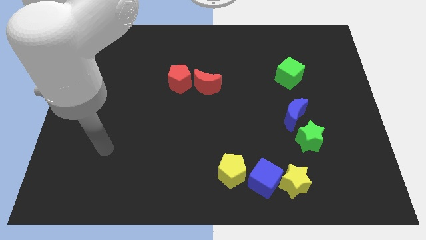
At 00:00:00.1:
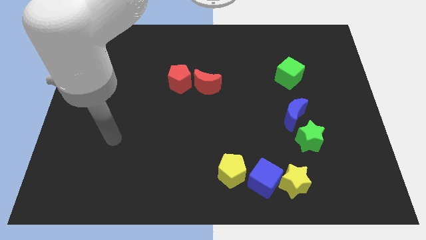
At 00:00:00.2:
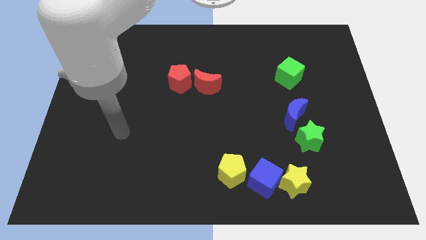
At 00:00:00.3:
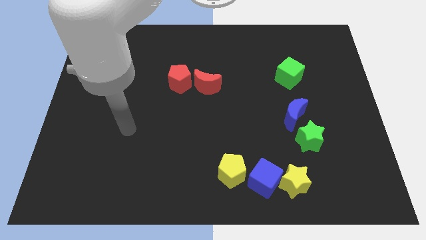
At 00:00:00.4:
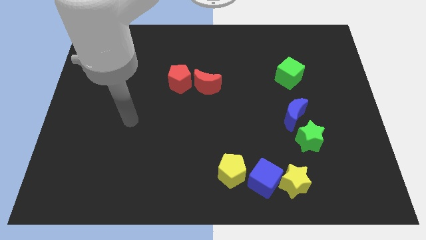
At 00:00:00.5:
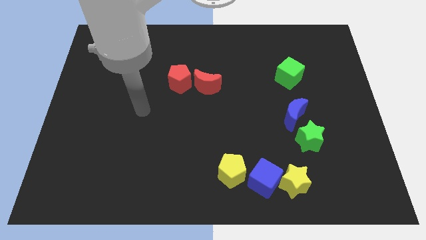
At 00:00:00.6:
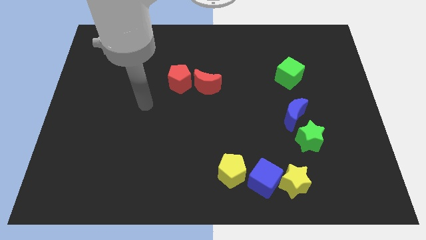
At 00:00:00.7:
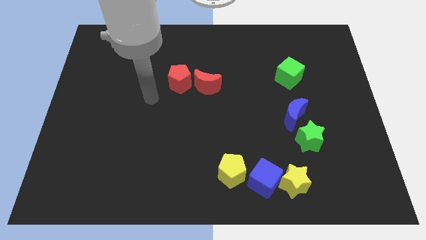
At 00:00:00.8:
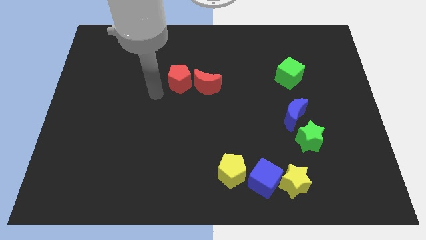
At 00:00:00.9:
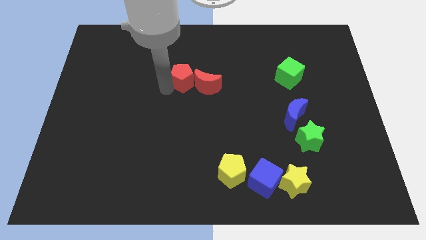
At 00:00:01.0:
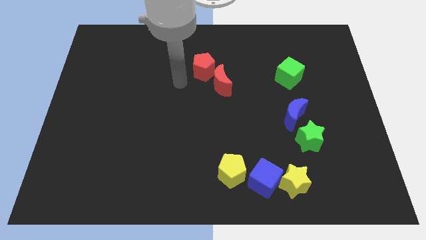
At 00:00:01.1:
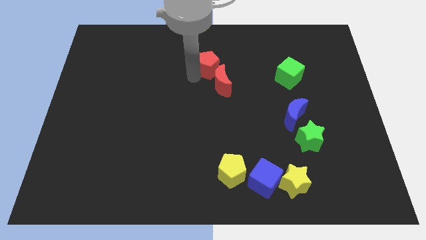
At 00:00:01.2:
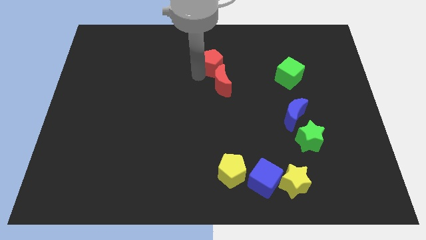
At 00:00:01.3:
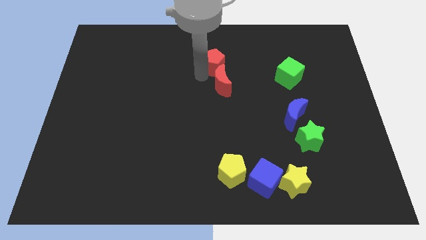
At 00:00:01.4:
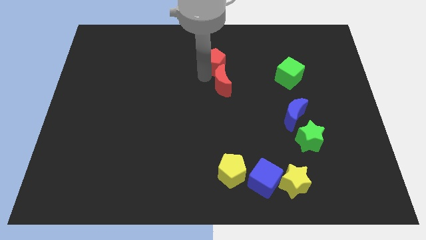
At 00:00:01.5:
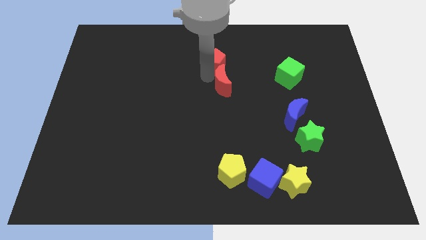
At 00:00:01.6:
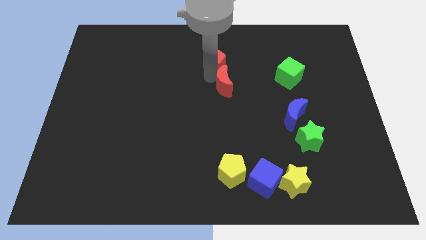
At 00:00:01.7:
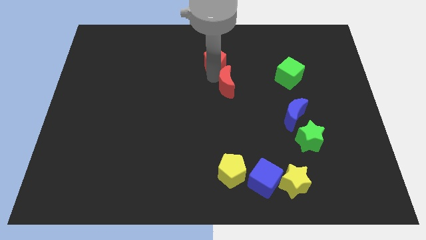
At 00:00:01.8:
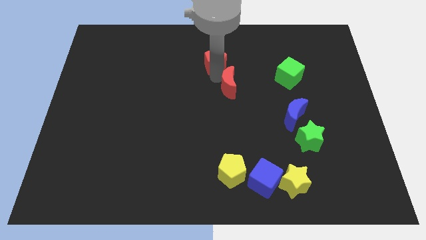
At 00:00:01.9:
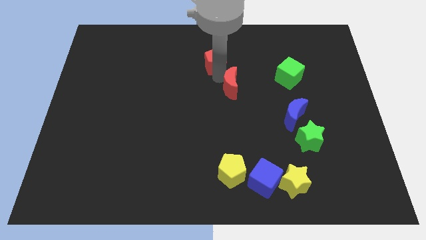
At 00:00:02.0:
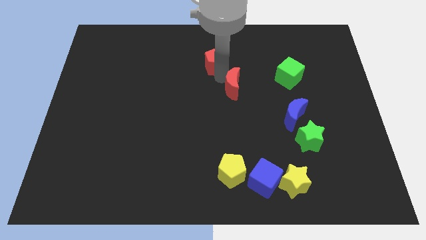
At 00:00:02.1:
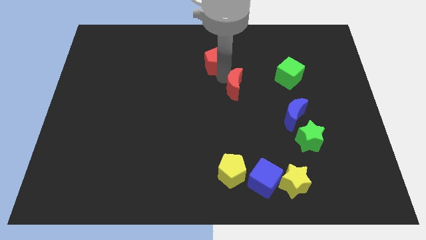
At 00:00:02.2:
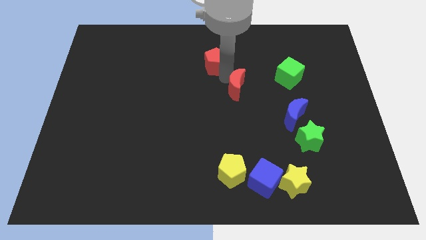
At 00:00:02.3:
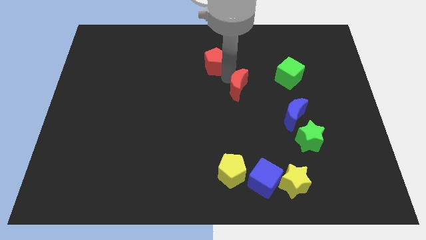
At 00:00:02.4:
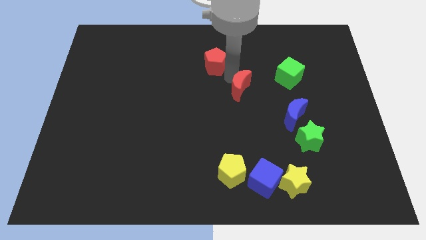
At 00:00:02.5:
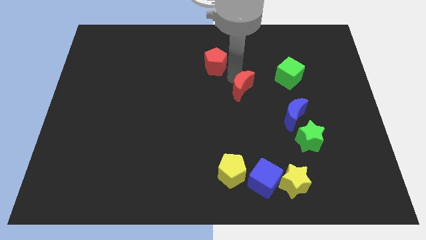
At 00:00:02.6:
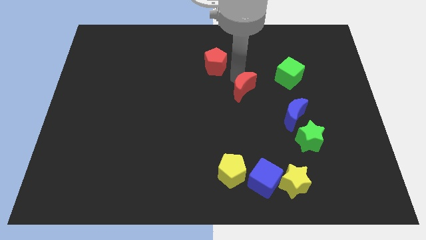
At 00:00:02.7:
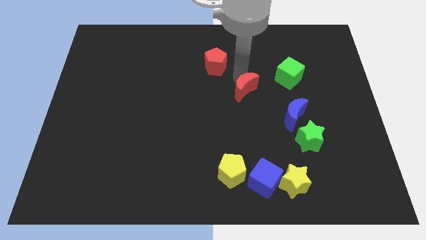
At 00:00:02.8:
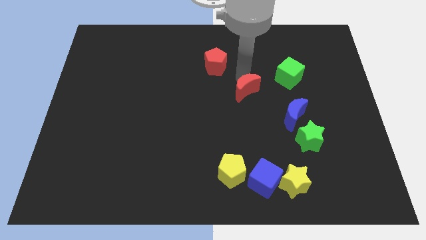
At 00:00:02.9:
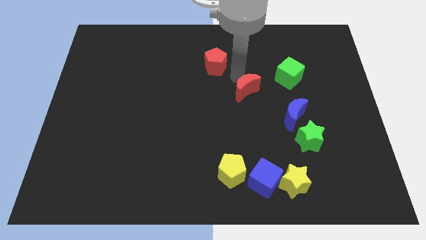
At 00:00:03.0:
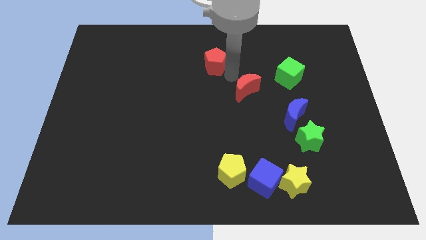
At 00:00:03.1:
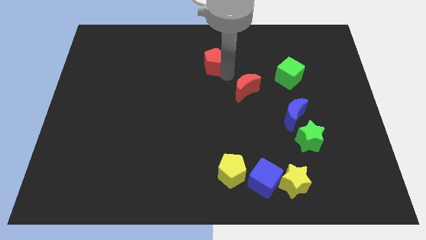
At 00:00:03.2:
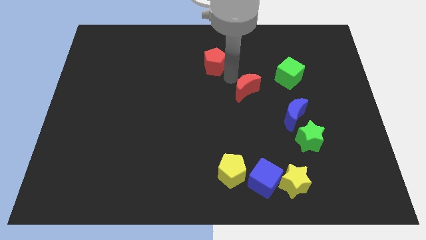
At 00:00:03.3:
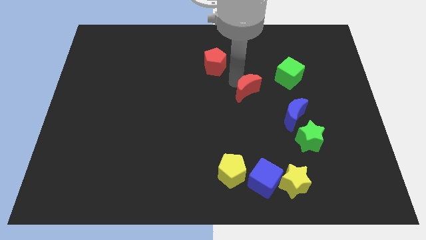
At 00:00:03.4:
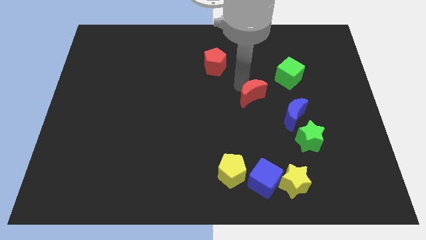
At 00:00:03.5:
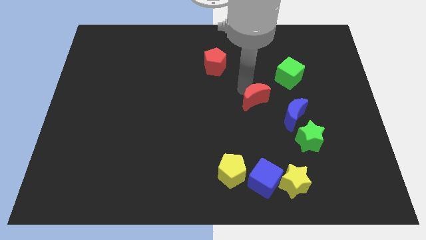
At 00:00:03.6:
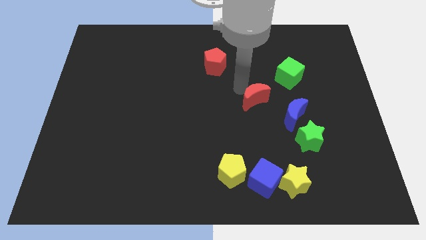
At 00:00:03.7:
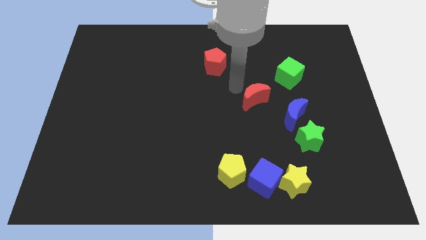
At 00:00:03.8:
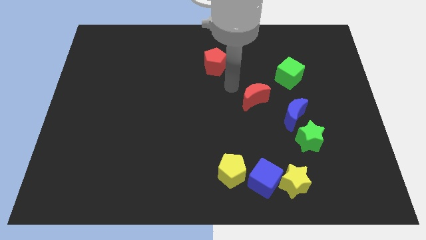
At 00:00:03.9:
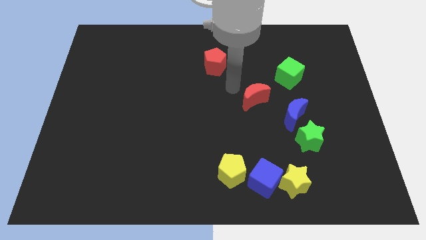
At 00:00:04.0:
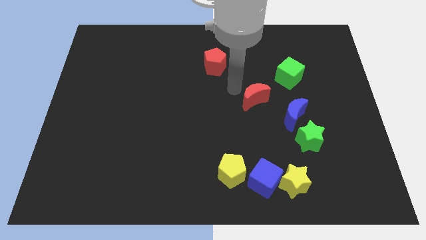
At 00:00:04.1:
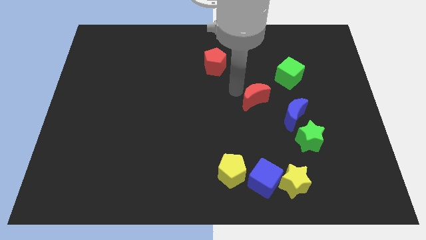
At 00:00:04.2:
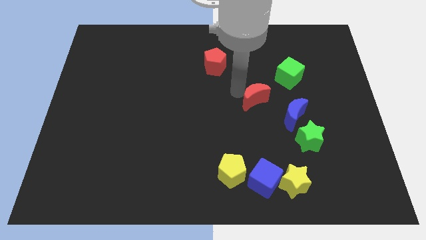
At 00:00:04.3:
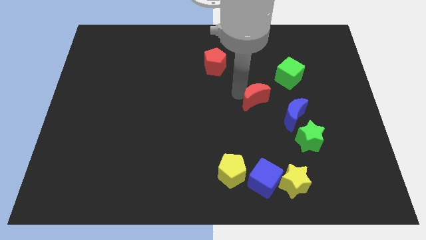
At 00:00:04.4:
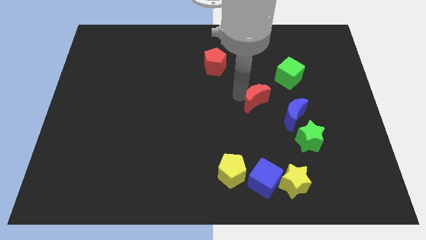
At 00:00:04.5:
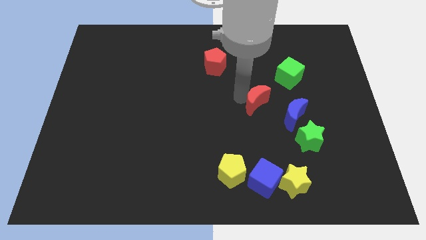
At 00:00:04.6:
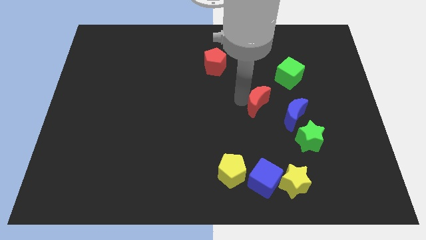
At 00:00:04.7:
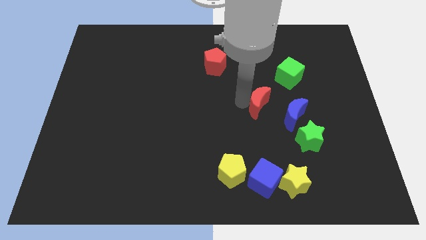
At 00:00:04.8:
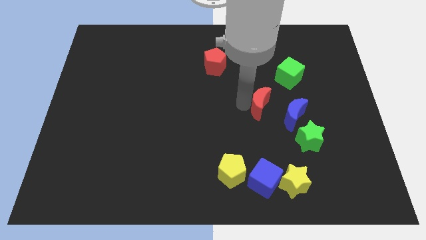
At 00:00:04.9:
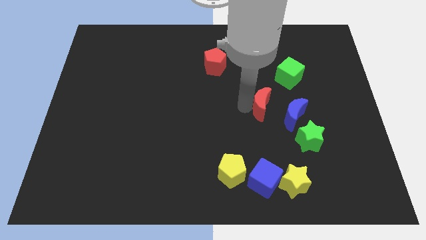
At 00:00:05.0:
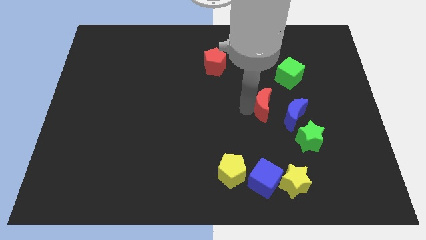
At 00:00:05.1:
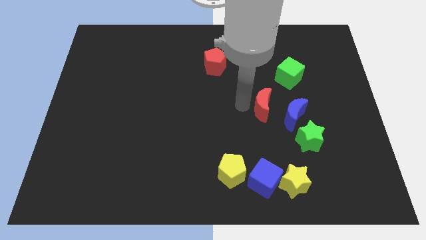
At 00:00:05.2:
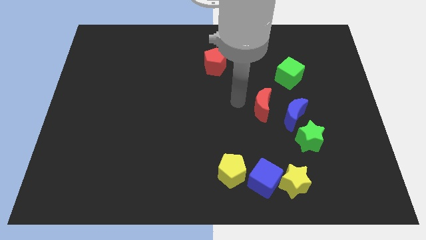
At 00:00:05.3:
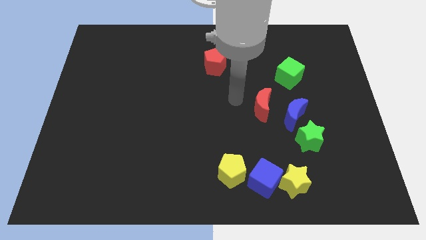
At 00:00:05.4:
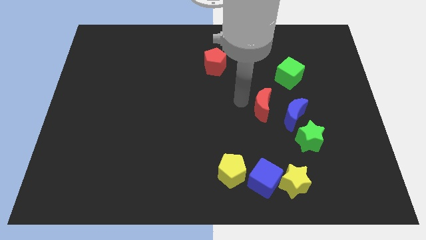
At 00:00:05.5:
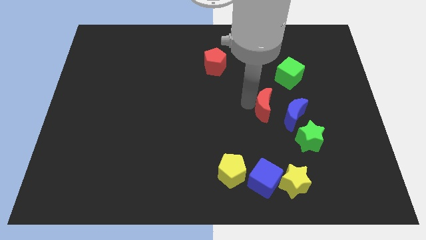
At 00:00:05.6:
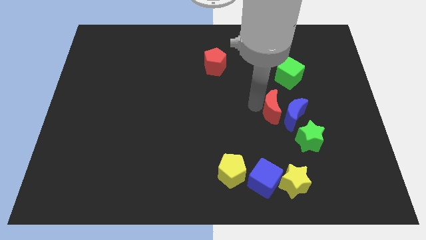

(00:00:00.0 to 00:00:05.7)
put the red moon next to the blue moon

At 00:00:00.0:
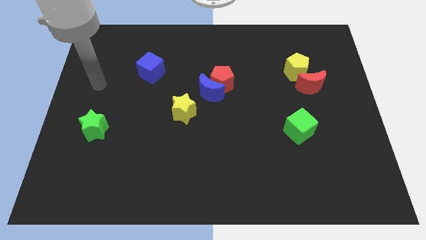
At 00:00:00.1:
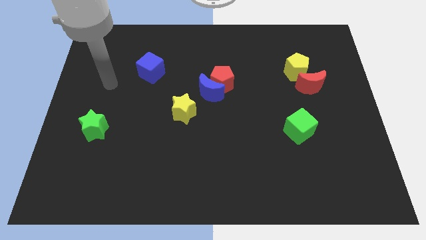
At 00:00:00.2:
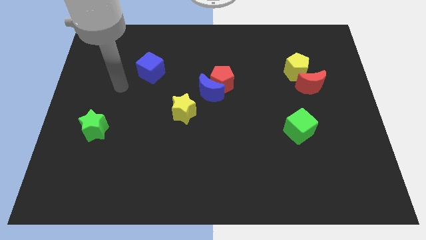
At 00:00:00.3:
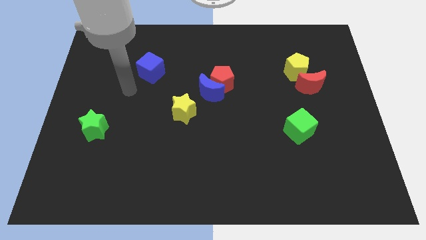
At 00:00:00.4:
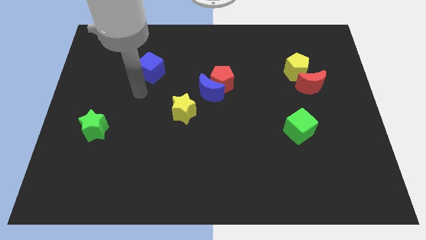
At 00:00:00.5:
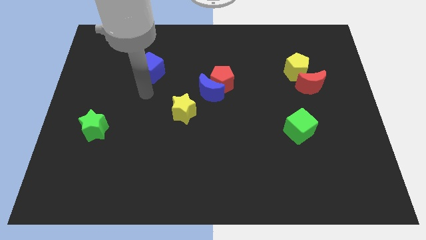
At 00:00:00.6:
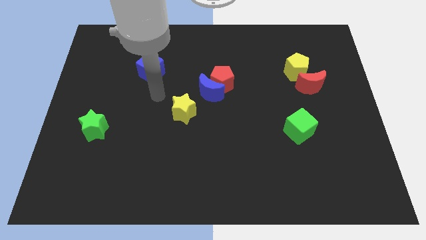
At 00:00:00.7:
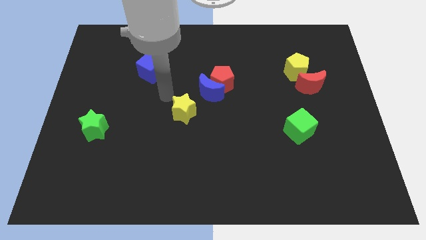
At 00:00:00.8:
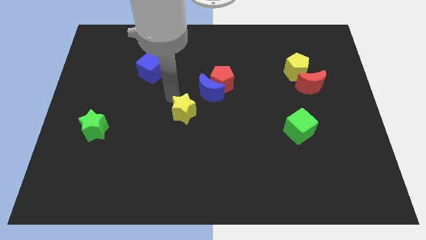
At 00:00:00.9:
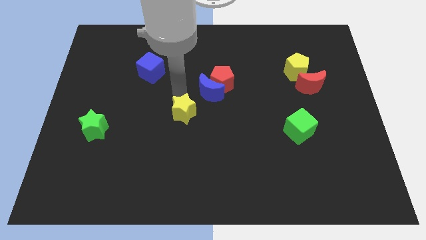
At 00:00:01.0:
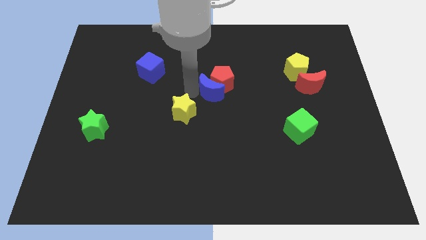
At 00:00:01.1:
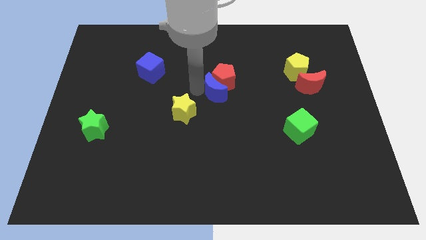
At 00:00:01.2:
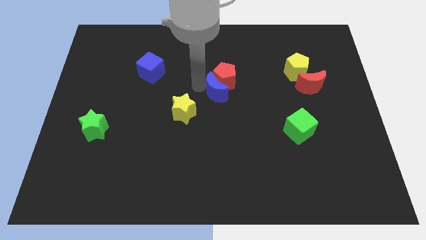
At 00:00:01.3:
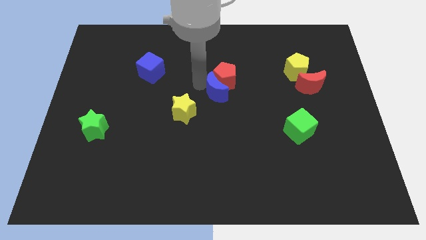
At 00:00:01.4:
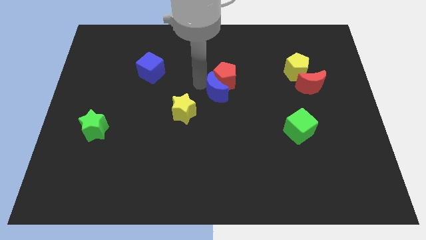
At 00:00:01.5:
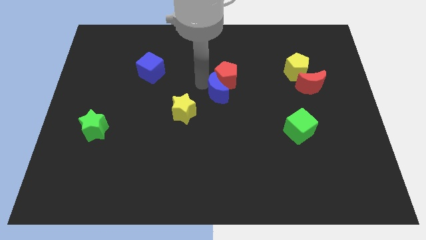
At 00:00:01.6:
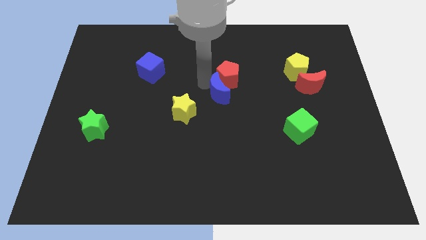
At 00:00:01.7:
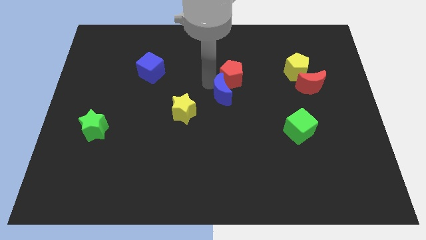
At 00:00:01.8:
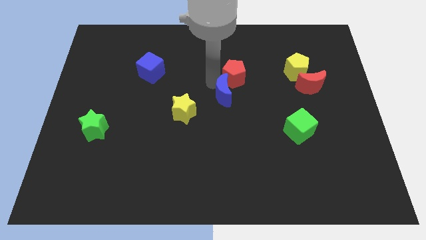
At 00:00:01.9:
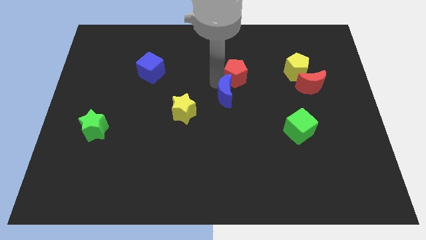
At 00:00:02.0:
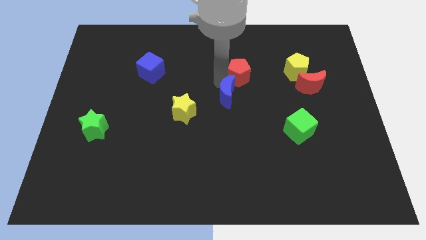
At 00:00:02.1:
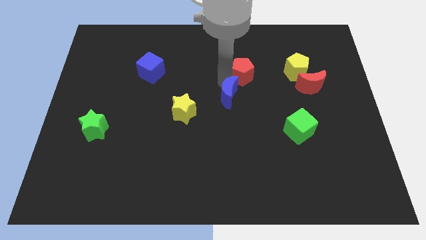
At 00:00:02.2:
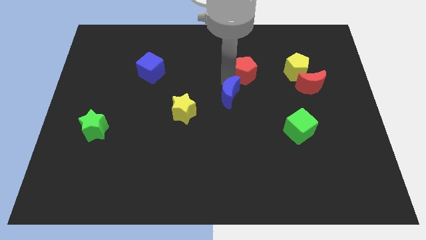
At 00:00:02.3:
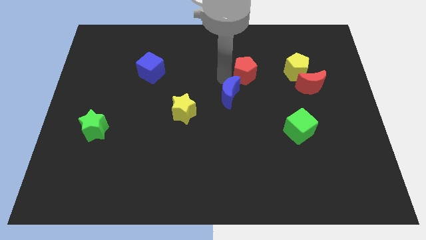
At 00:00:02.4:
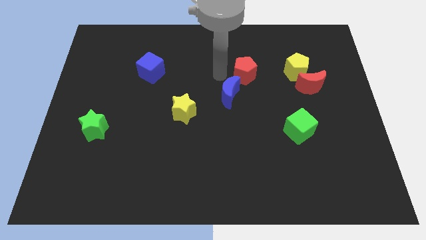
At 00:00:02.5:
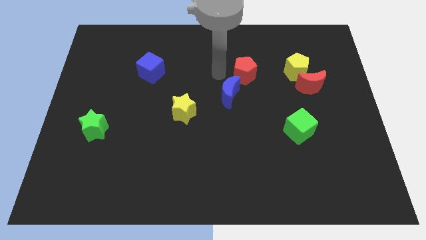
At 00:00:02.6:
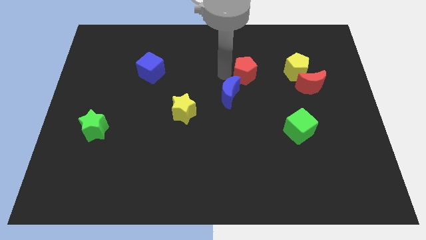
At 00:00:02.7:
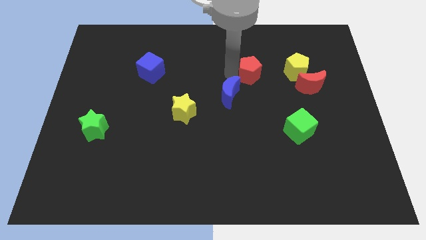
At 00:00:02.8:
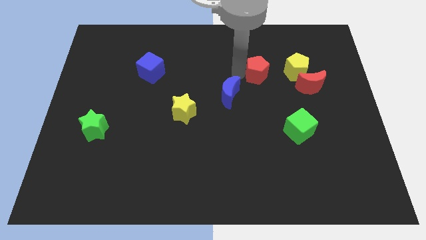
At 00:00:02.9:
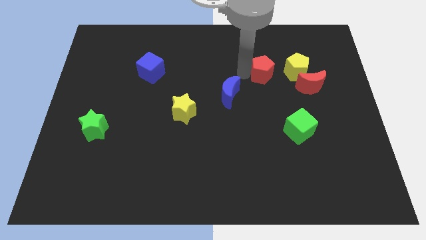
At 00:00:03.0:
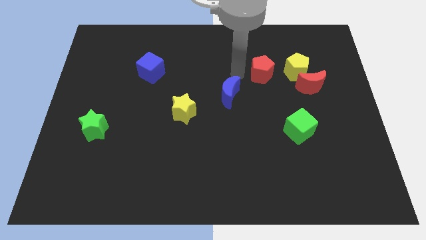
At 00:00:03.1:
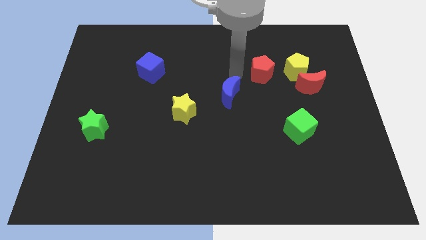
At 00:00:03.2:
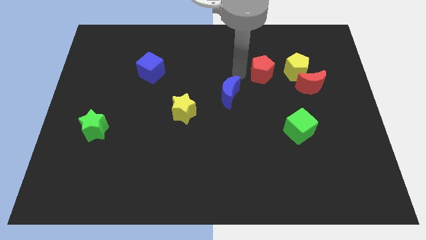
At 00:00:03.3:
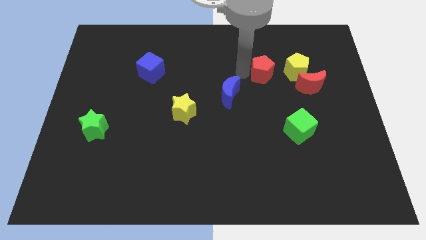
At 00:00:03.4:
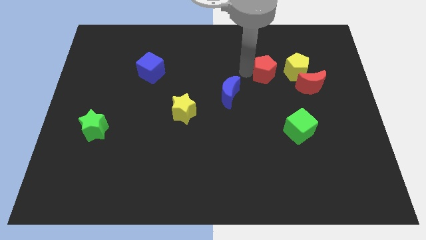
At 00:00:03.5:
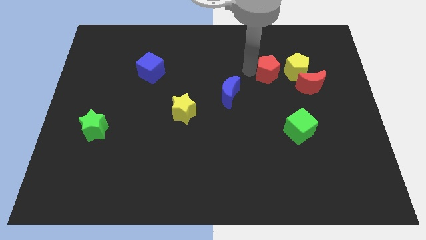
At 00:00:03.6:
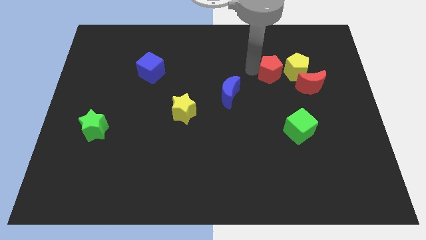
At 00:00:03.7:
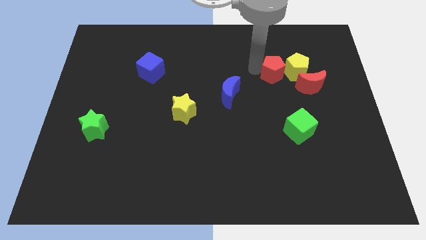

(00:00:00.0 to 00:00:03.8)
slide the red pentagon to the yellow pentagon
